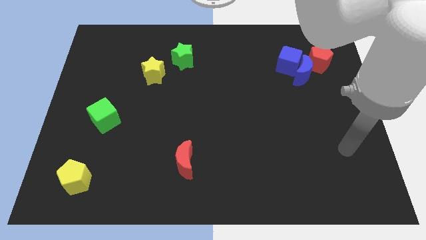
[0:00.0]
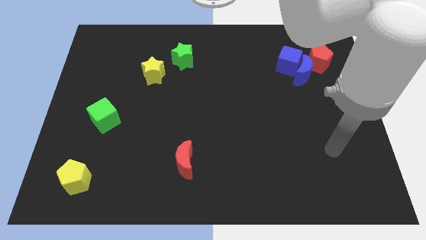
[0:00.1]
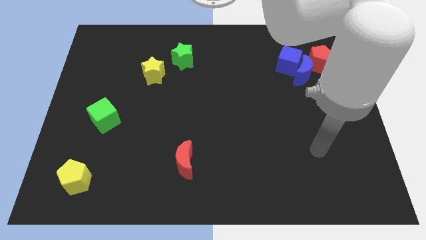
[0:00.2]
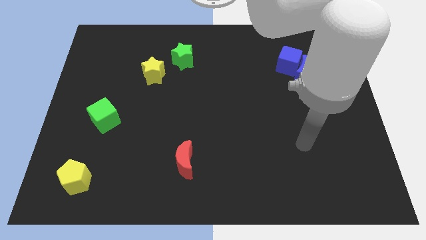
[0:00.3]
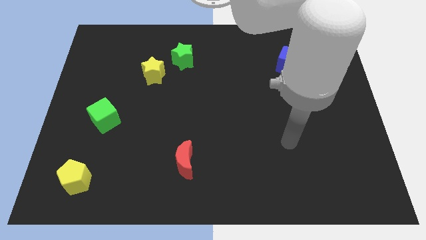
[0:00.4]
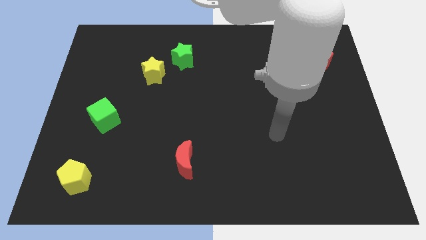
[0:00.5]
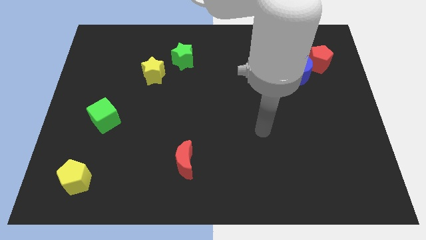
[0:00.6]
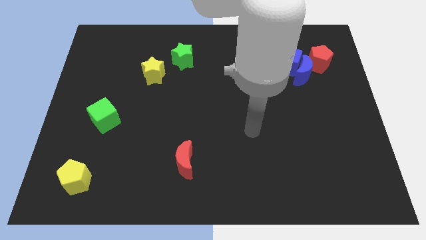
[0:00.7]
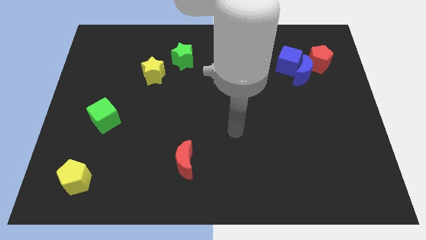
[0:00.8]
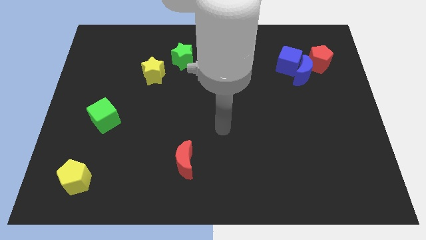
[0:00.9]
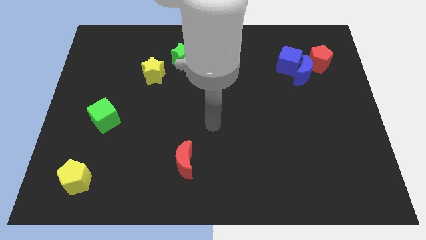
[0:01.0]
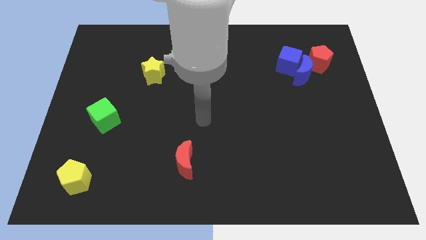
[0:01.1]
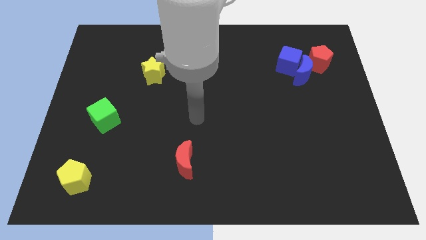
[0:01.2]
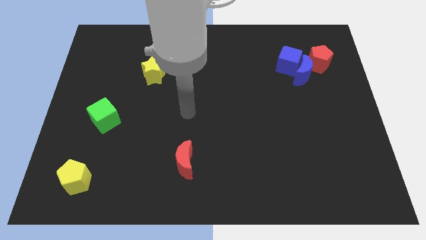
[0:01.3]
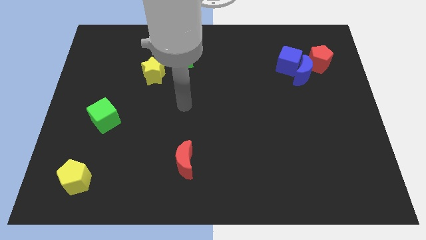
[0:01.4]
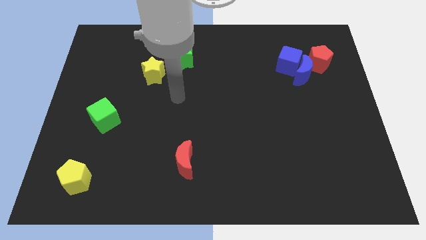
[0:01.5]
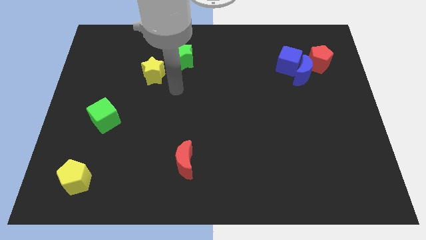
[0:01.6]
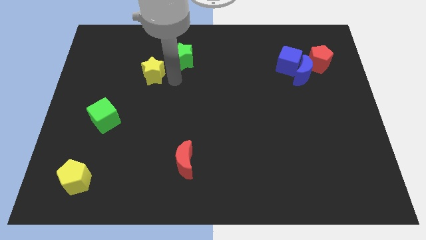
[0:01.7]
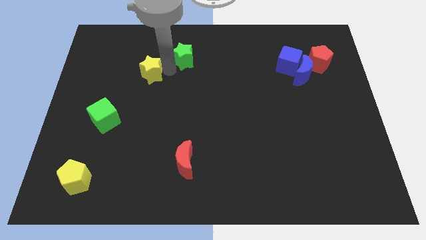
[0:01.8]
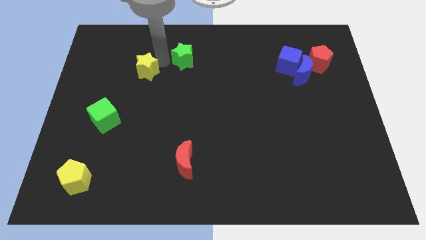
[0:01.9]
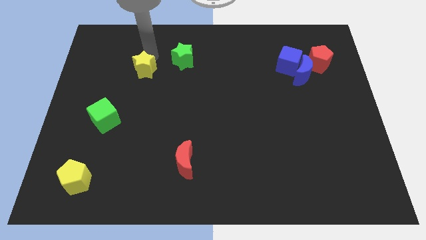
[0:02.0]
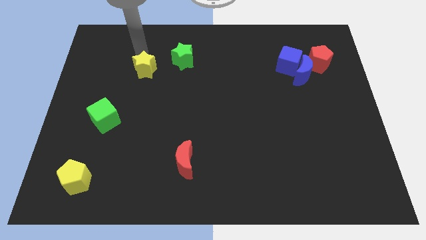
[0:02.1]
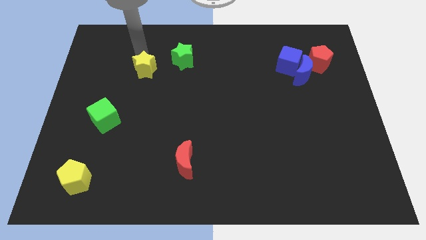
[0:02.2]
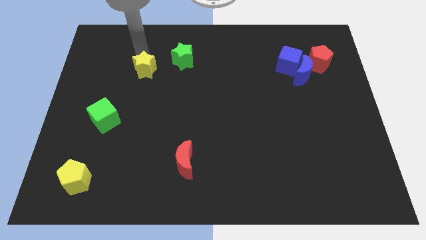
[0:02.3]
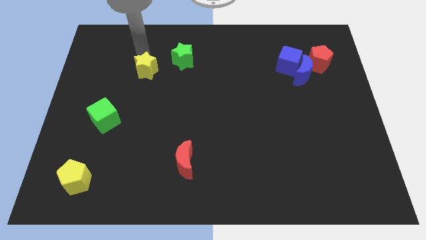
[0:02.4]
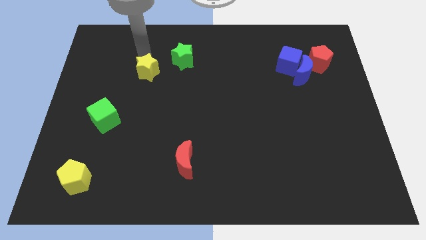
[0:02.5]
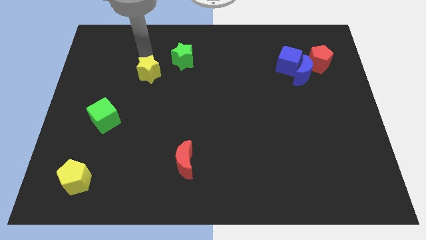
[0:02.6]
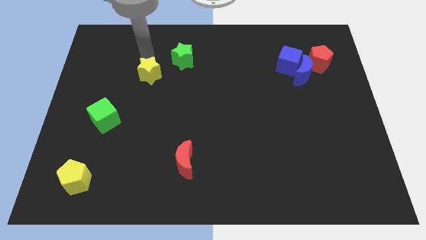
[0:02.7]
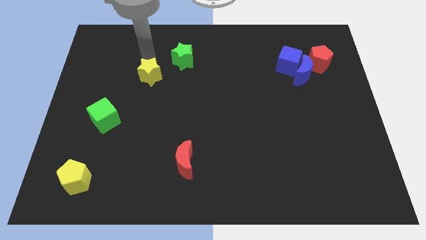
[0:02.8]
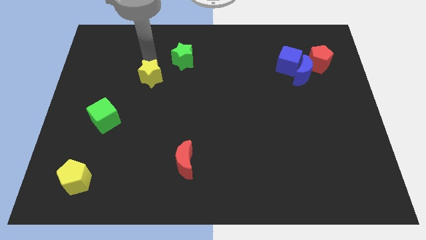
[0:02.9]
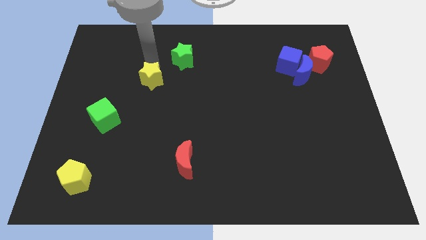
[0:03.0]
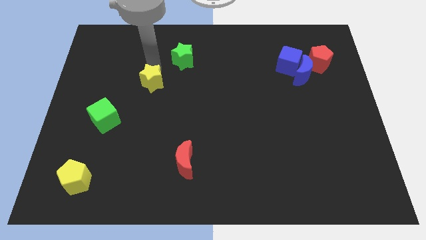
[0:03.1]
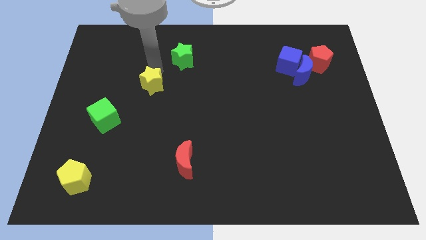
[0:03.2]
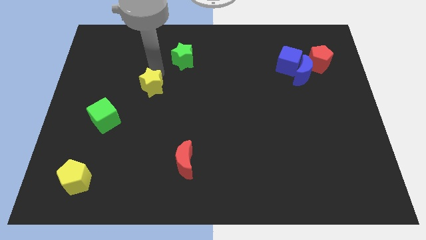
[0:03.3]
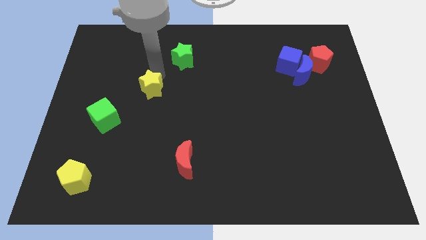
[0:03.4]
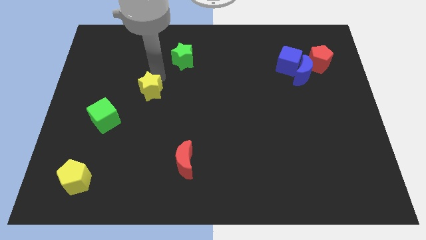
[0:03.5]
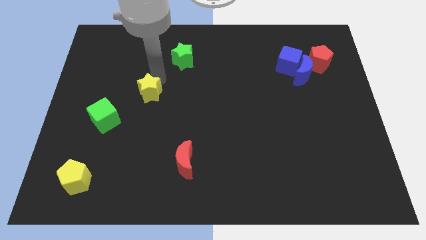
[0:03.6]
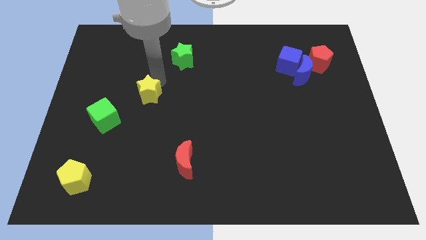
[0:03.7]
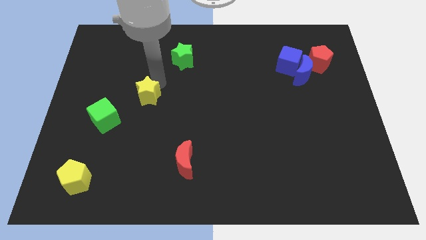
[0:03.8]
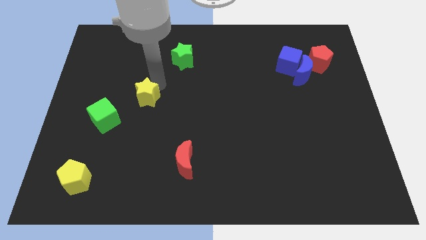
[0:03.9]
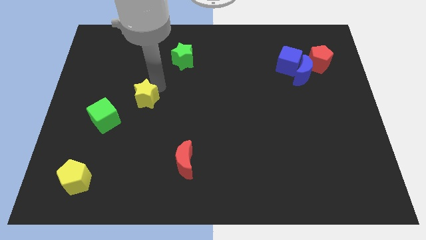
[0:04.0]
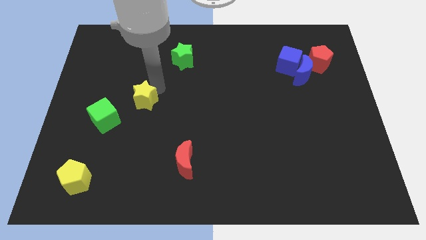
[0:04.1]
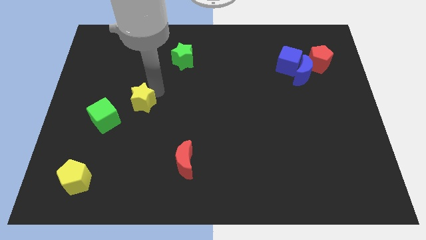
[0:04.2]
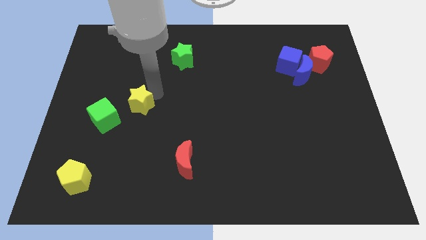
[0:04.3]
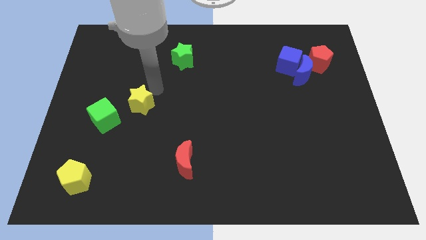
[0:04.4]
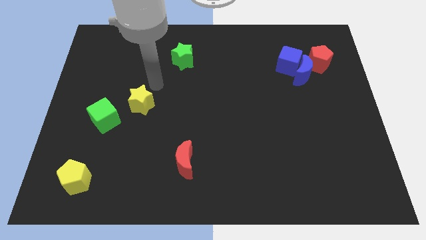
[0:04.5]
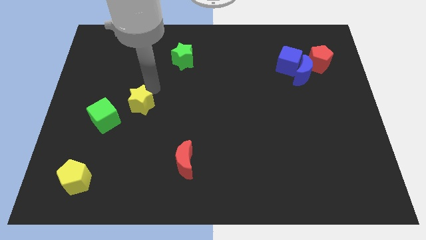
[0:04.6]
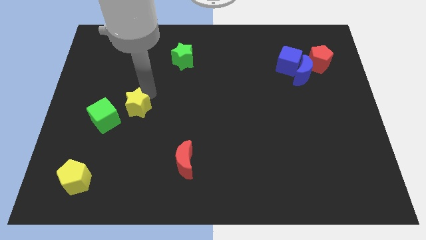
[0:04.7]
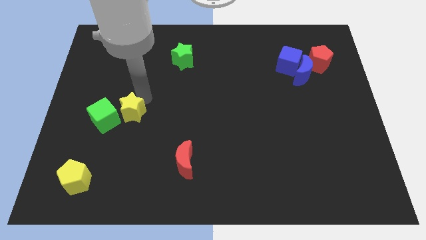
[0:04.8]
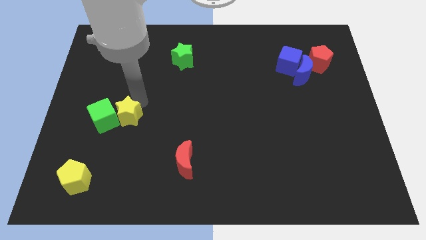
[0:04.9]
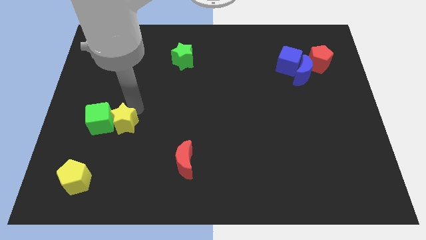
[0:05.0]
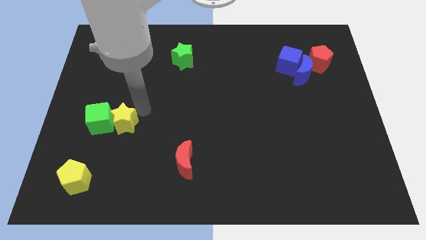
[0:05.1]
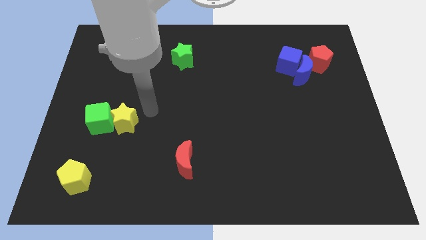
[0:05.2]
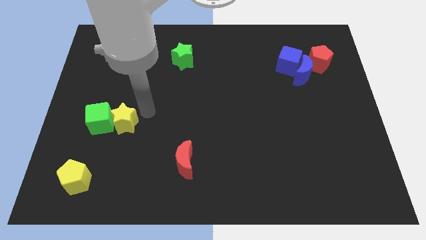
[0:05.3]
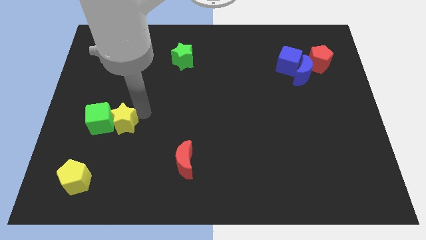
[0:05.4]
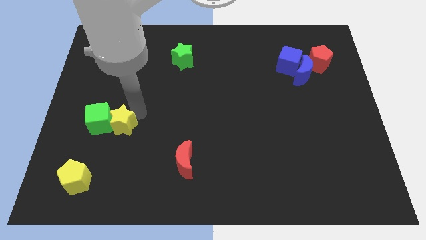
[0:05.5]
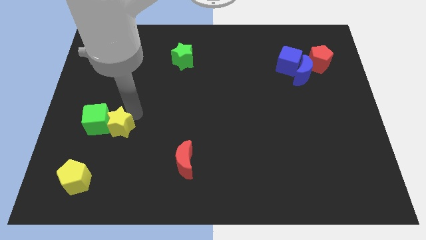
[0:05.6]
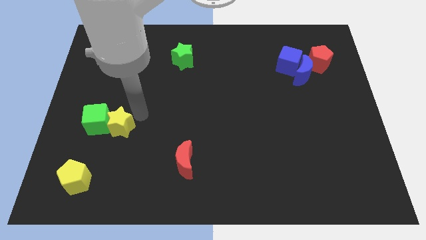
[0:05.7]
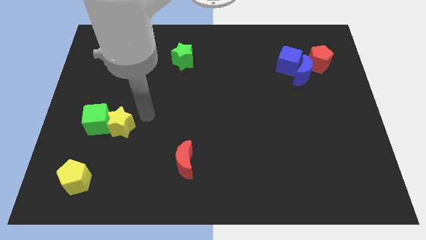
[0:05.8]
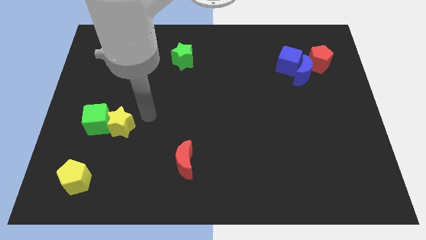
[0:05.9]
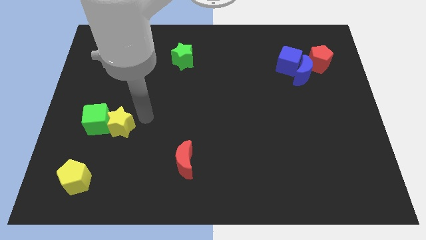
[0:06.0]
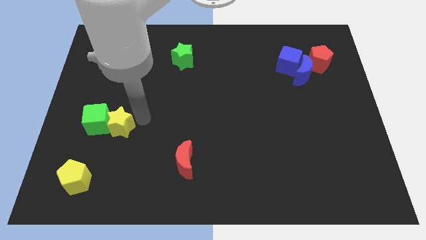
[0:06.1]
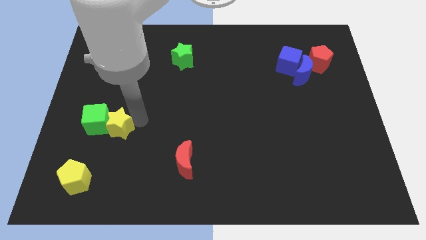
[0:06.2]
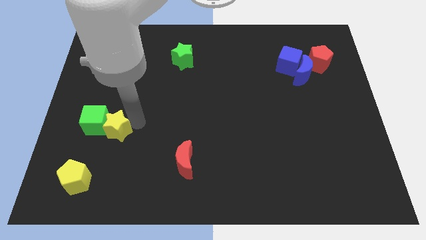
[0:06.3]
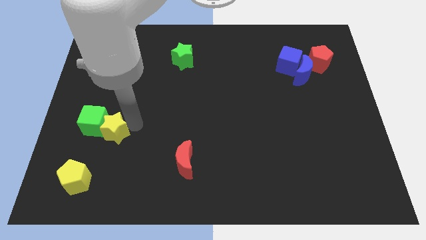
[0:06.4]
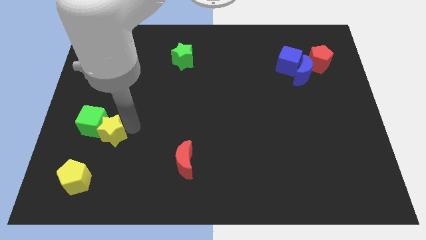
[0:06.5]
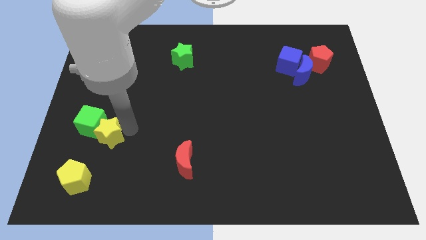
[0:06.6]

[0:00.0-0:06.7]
slide the yellow star to the top of the yellow pentagon

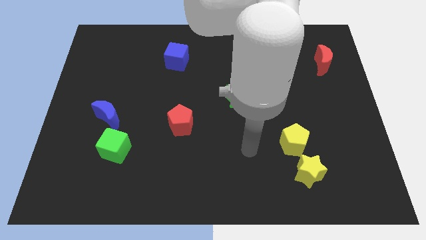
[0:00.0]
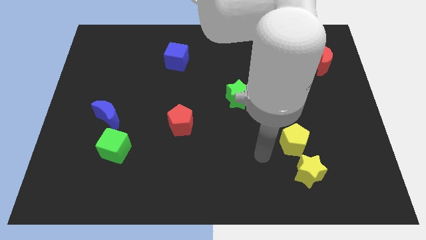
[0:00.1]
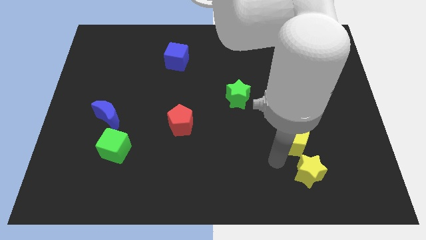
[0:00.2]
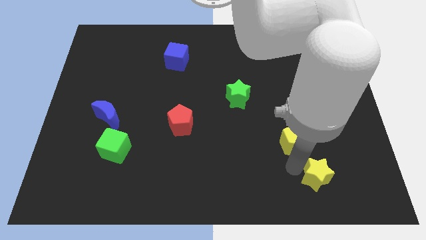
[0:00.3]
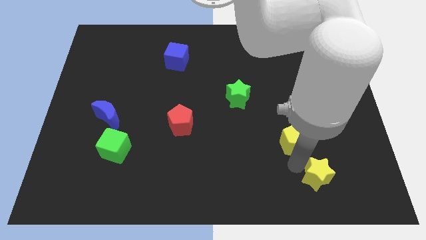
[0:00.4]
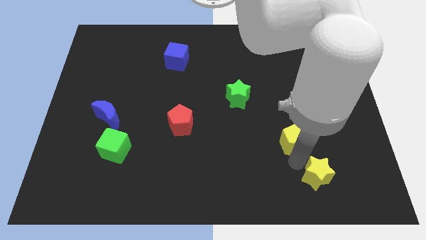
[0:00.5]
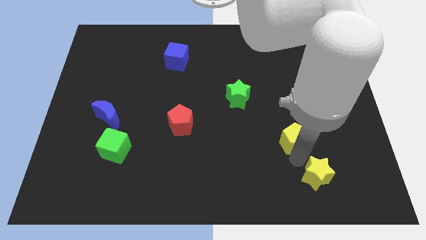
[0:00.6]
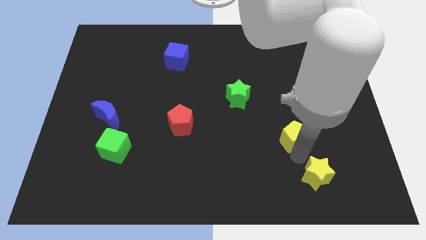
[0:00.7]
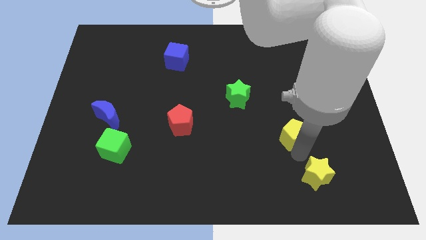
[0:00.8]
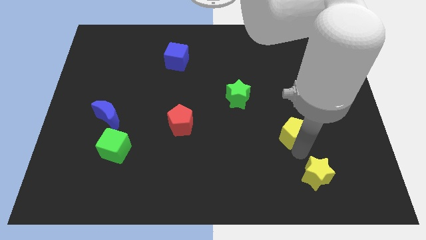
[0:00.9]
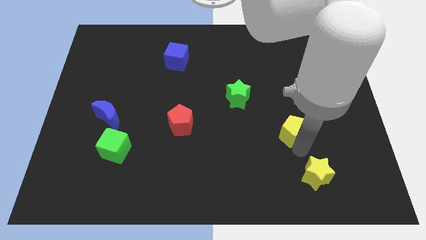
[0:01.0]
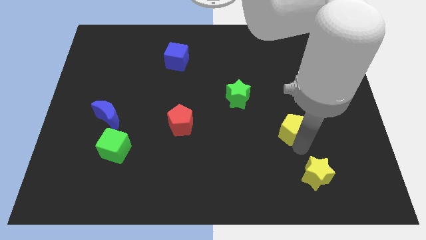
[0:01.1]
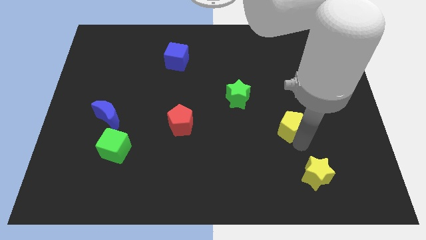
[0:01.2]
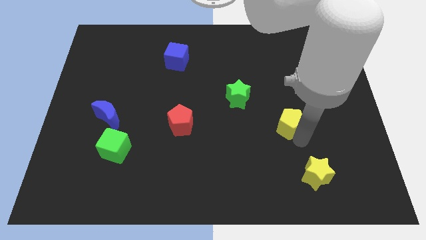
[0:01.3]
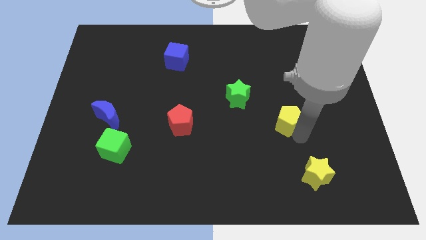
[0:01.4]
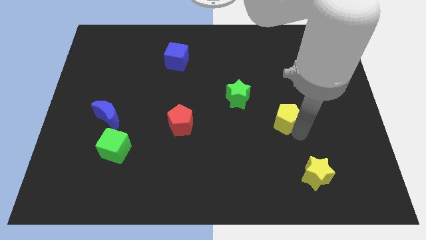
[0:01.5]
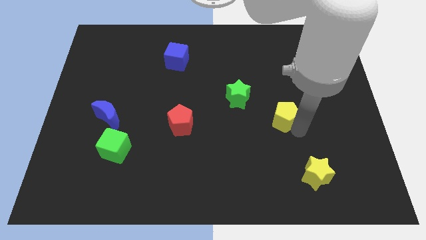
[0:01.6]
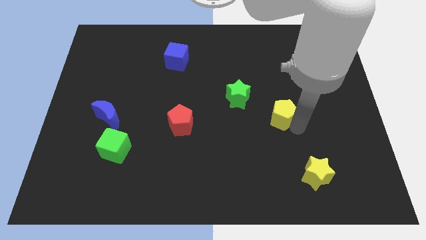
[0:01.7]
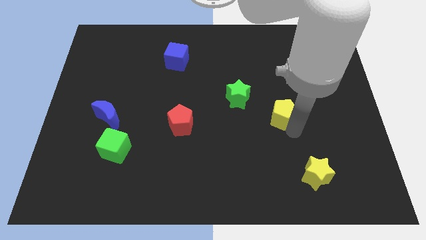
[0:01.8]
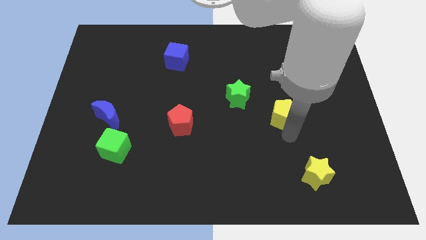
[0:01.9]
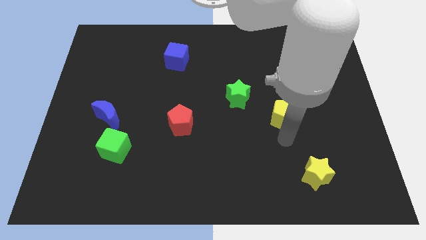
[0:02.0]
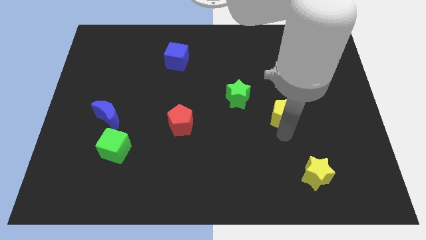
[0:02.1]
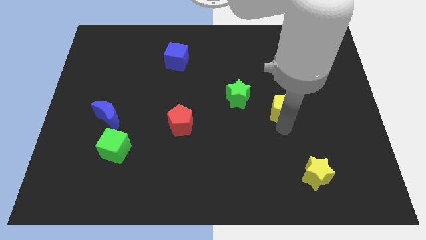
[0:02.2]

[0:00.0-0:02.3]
slide the yellow pentagon just right of the green star
